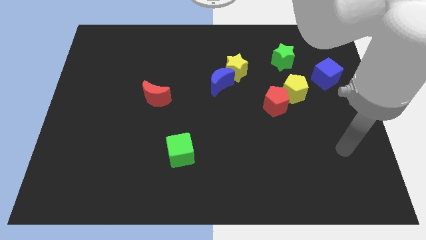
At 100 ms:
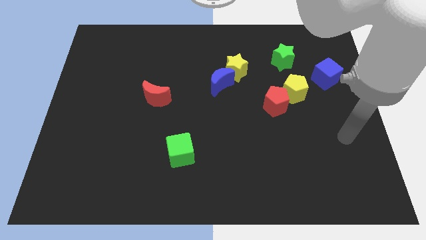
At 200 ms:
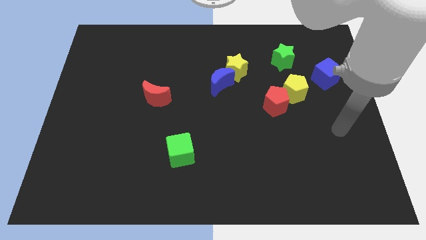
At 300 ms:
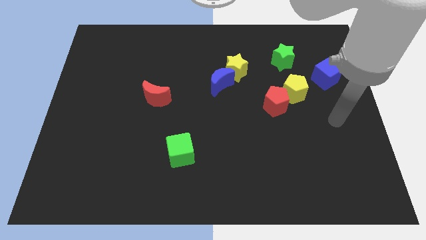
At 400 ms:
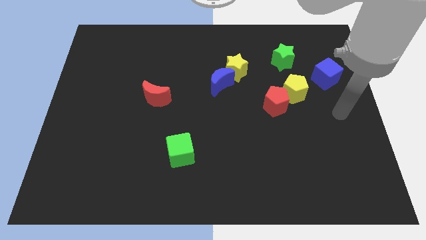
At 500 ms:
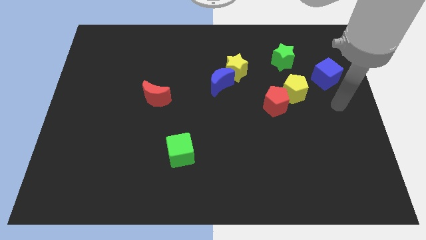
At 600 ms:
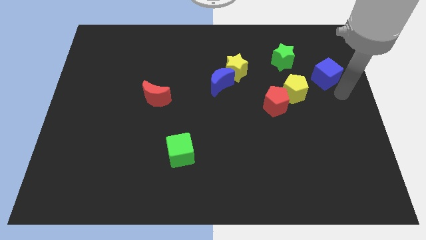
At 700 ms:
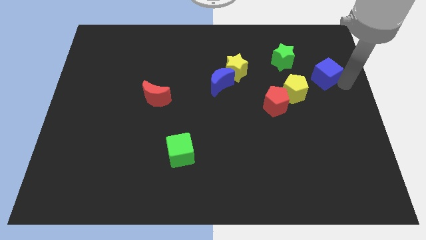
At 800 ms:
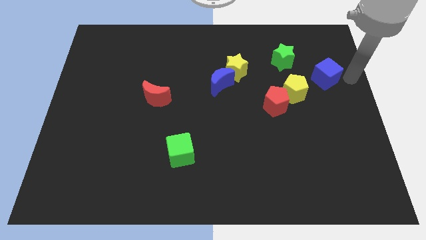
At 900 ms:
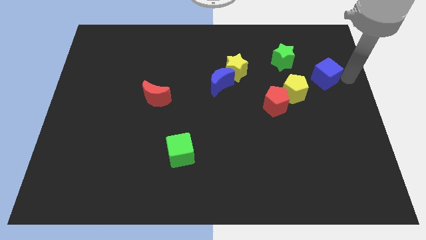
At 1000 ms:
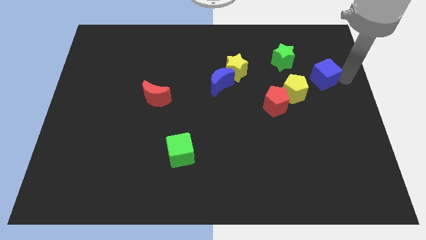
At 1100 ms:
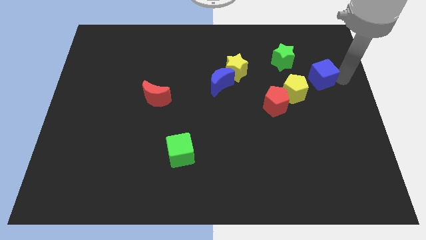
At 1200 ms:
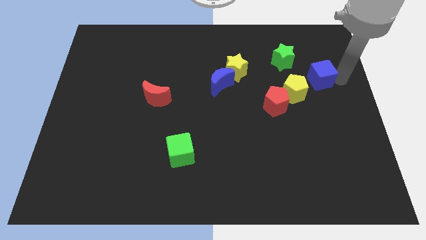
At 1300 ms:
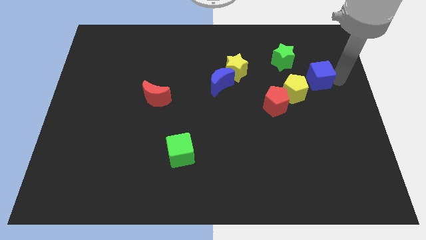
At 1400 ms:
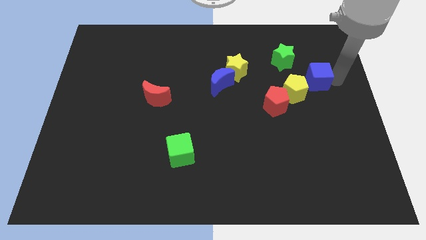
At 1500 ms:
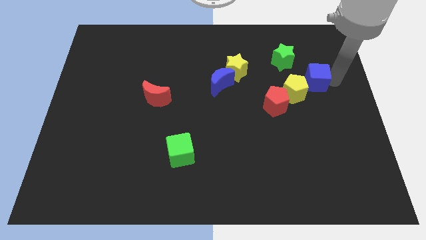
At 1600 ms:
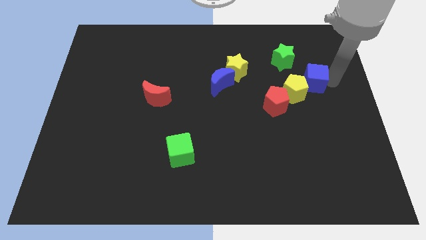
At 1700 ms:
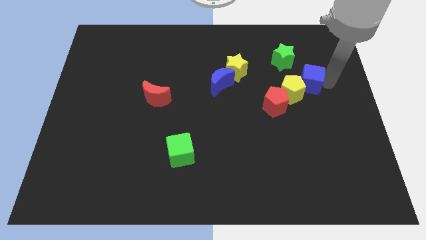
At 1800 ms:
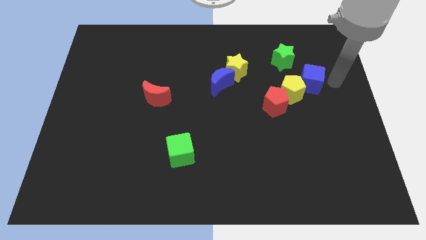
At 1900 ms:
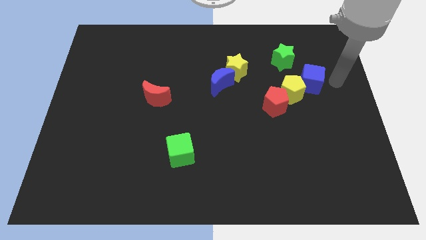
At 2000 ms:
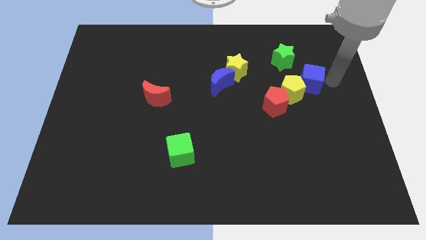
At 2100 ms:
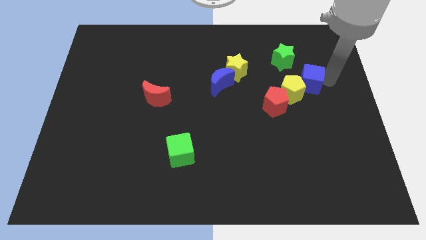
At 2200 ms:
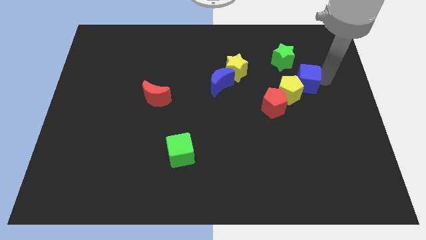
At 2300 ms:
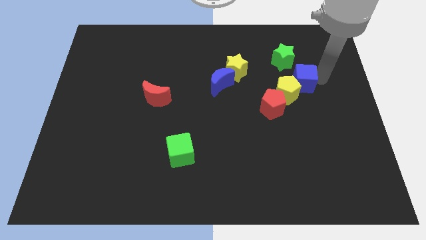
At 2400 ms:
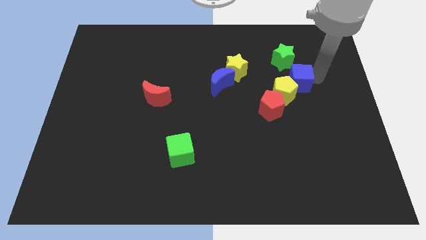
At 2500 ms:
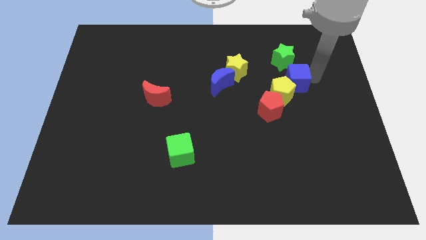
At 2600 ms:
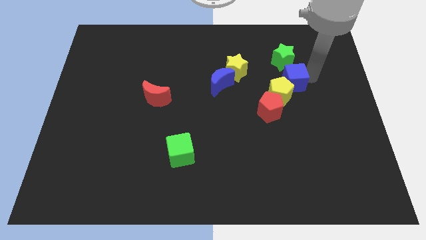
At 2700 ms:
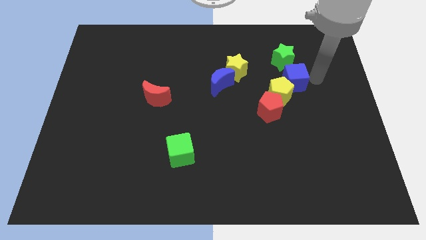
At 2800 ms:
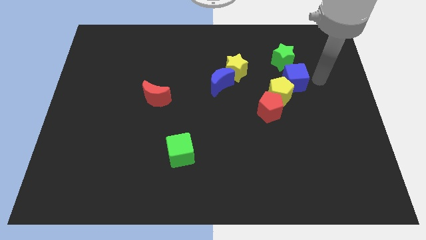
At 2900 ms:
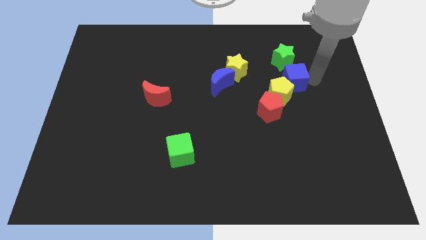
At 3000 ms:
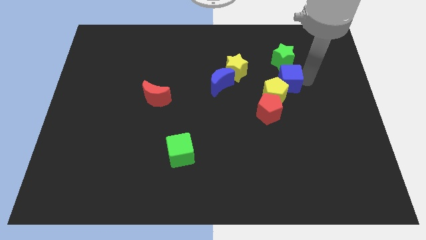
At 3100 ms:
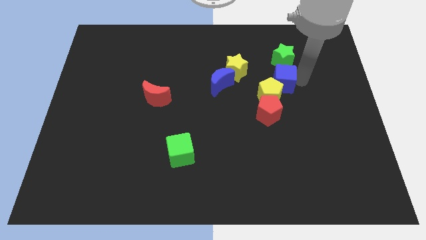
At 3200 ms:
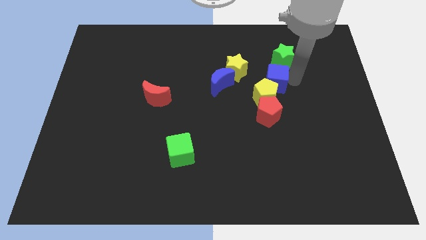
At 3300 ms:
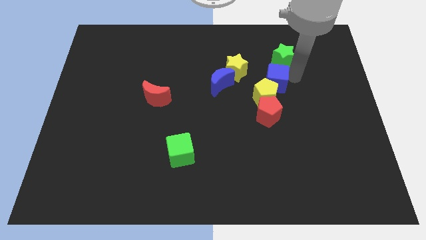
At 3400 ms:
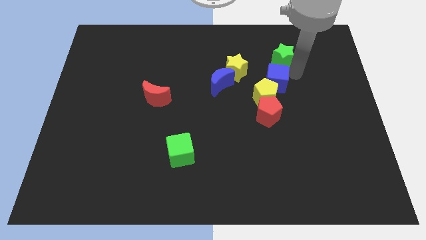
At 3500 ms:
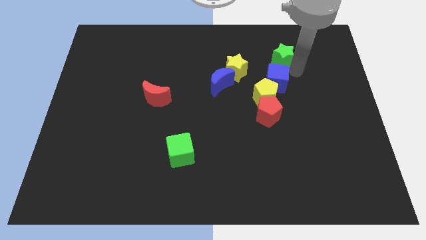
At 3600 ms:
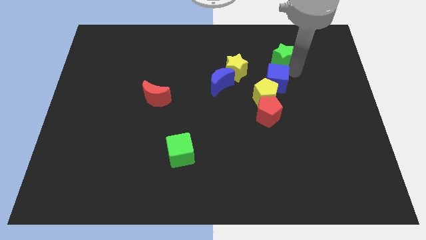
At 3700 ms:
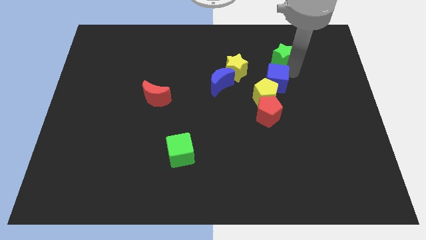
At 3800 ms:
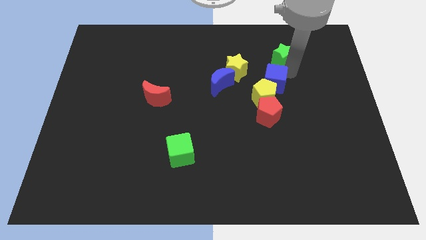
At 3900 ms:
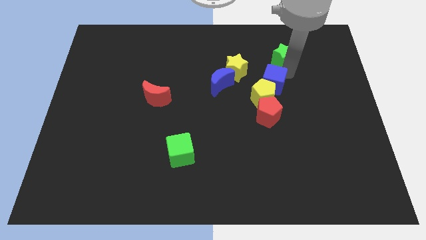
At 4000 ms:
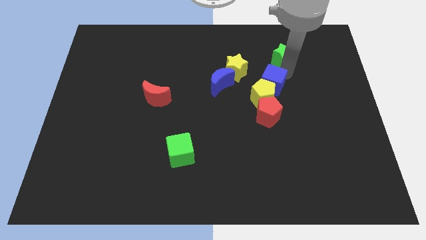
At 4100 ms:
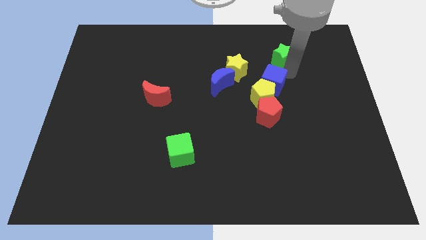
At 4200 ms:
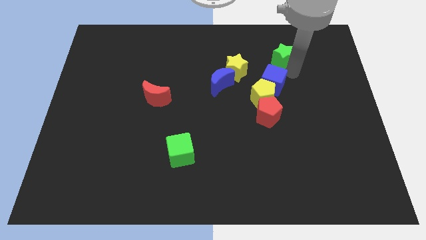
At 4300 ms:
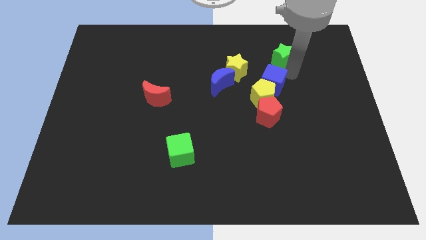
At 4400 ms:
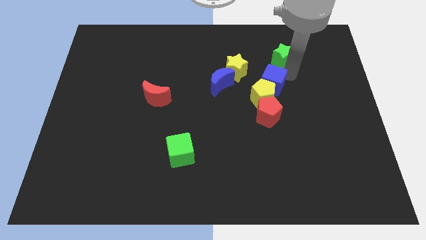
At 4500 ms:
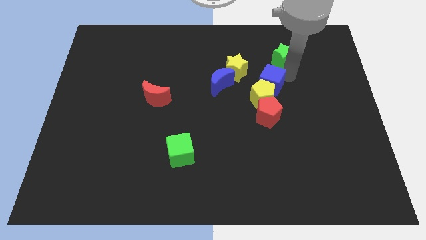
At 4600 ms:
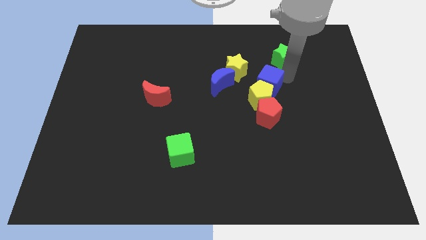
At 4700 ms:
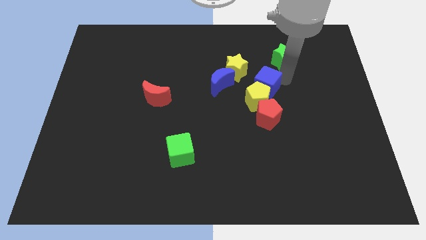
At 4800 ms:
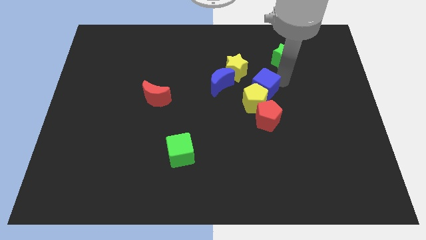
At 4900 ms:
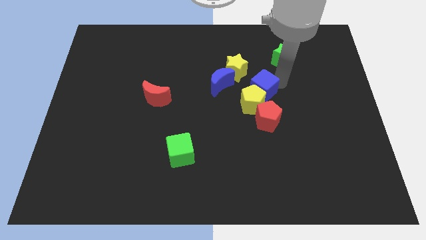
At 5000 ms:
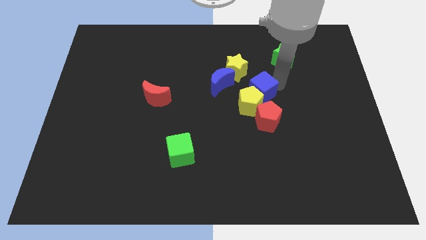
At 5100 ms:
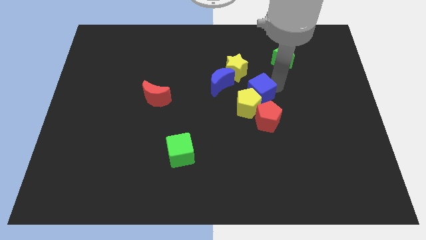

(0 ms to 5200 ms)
slide the blue cube to the bottom right of the blue moon

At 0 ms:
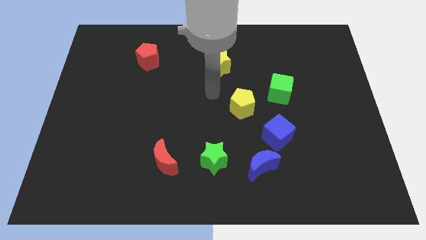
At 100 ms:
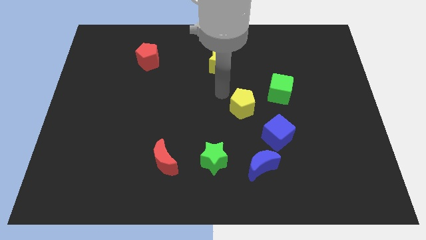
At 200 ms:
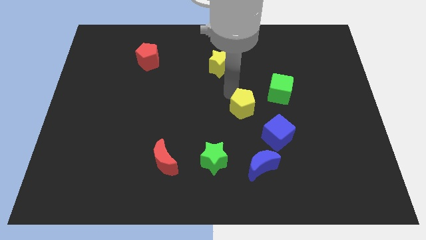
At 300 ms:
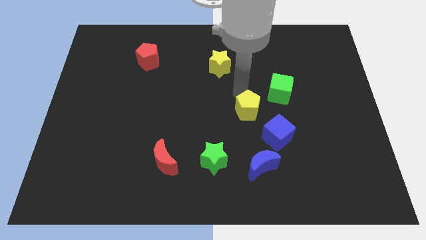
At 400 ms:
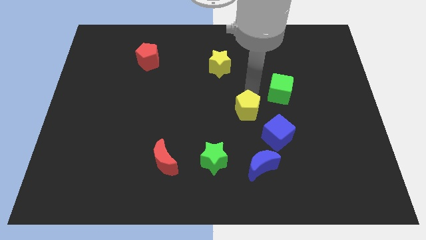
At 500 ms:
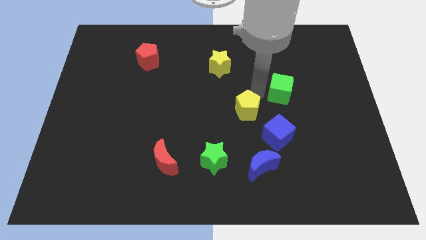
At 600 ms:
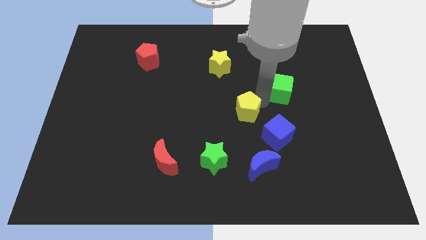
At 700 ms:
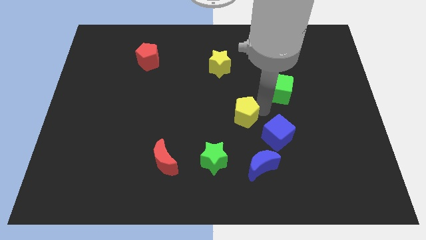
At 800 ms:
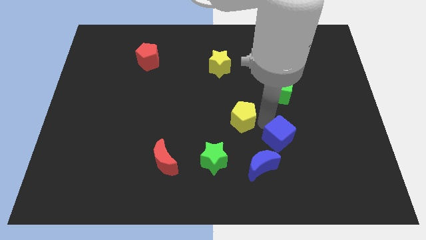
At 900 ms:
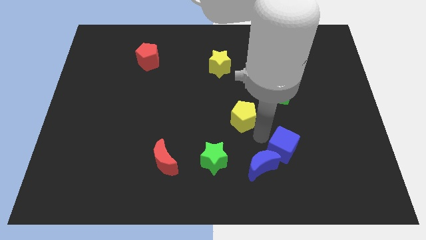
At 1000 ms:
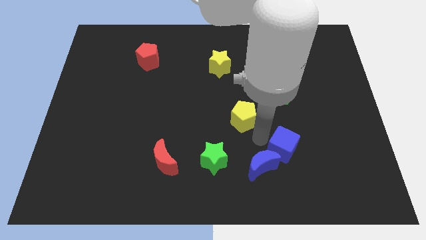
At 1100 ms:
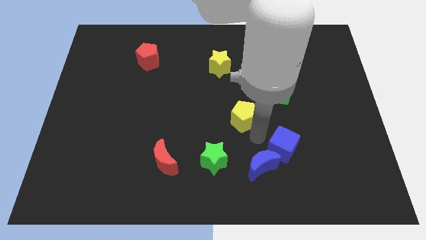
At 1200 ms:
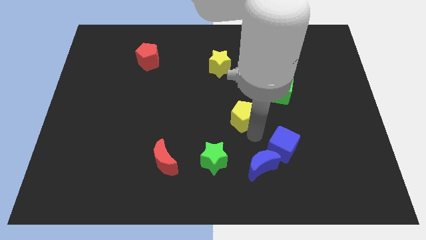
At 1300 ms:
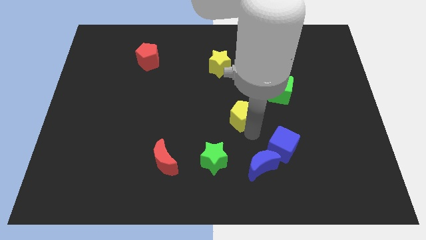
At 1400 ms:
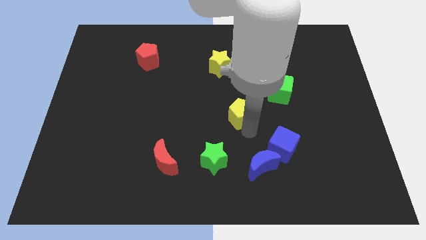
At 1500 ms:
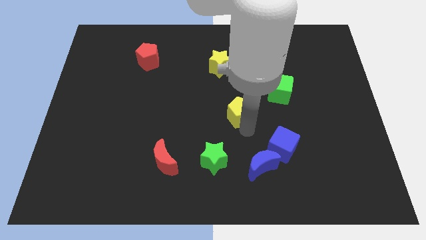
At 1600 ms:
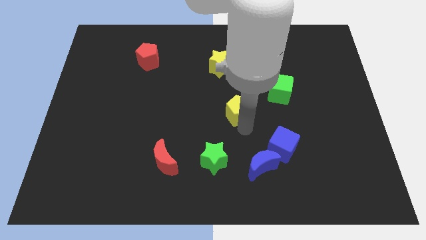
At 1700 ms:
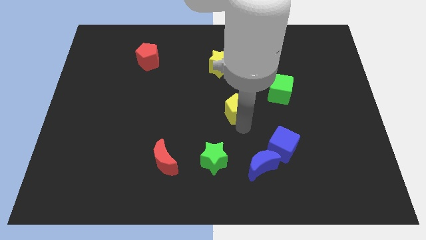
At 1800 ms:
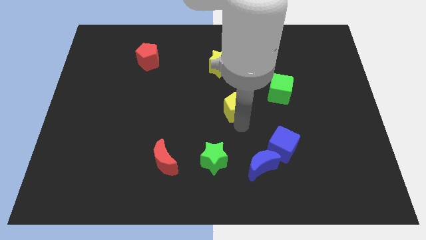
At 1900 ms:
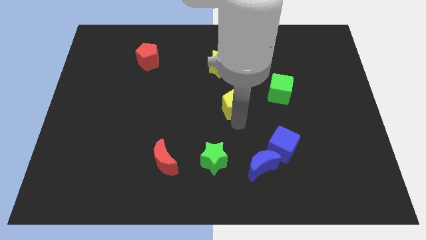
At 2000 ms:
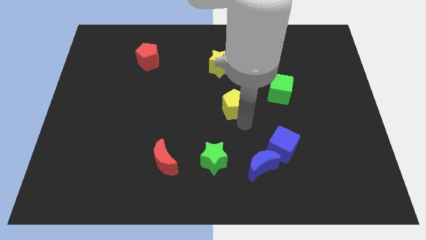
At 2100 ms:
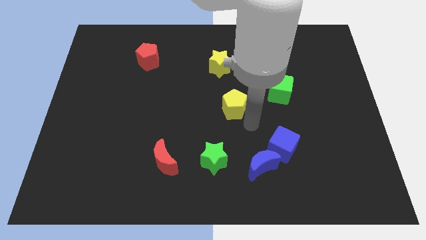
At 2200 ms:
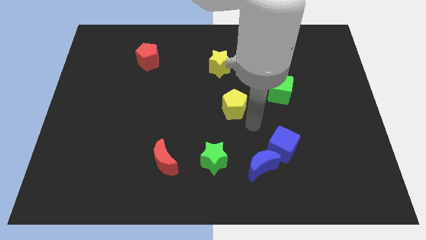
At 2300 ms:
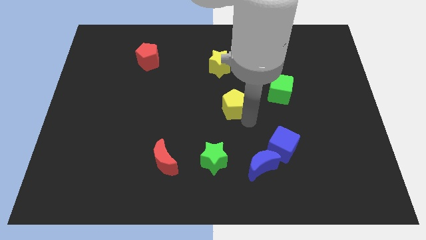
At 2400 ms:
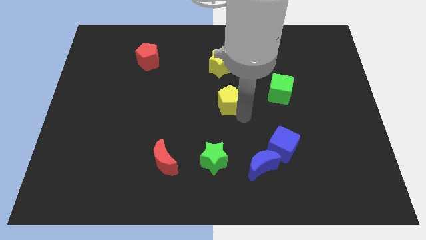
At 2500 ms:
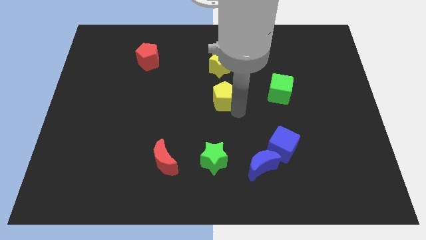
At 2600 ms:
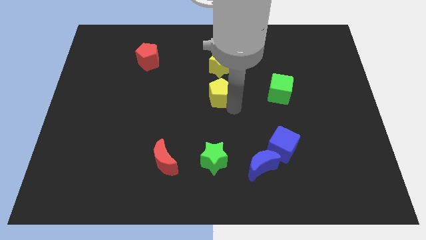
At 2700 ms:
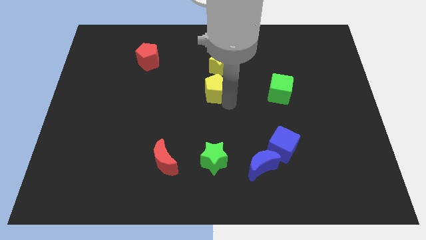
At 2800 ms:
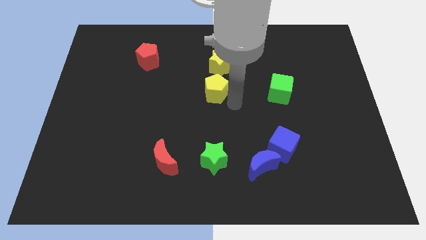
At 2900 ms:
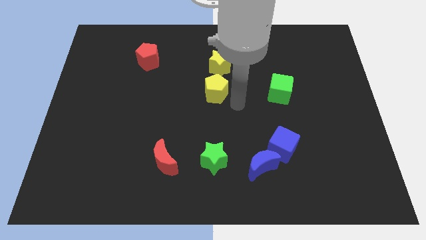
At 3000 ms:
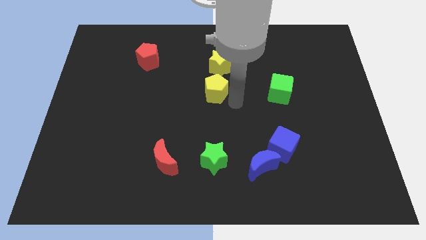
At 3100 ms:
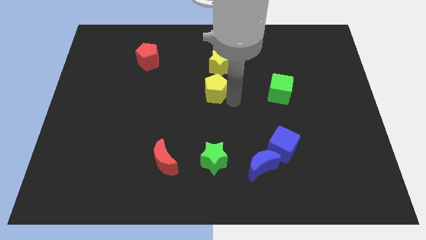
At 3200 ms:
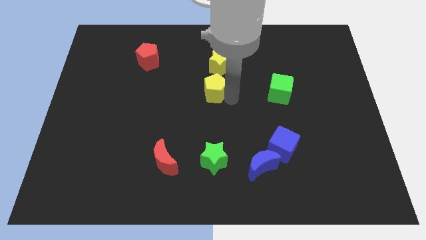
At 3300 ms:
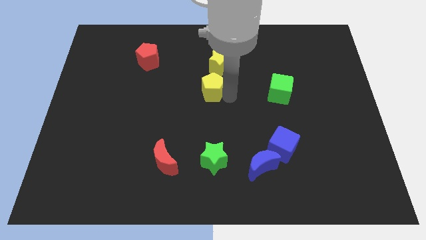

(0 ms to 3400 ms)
move the yellow pentagon diagonally down and to the left of the yellow star
